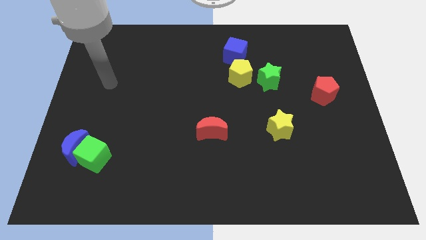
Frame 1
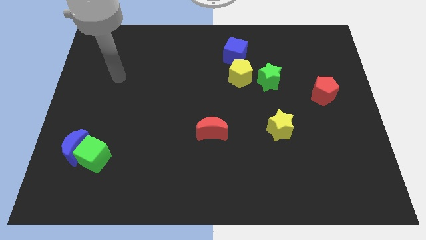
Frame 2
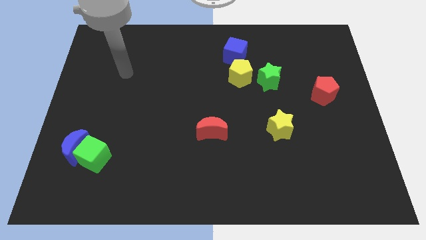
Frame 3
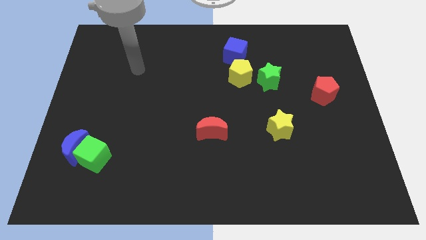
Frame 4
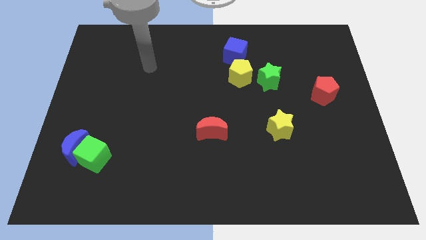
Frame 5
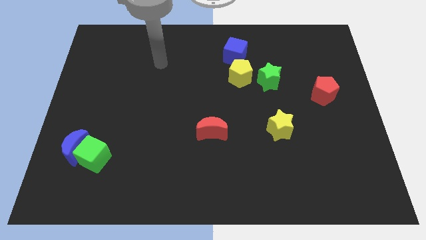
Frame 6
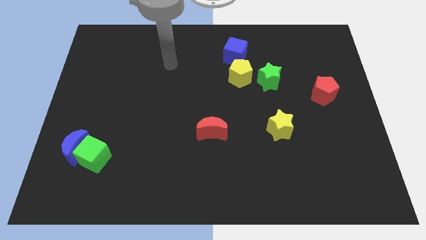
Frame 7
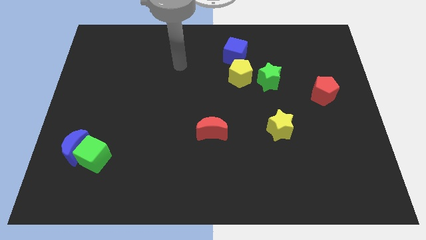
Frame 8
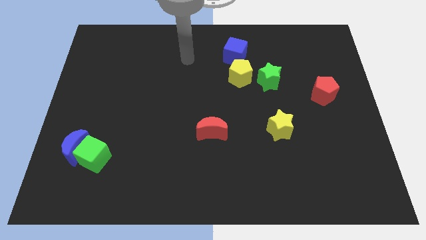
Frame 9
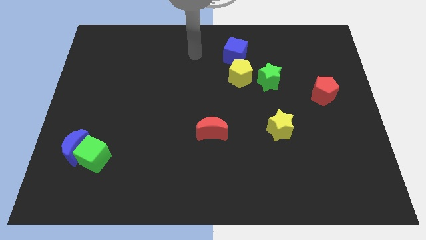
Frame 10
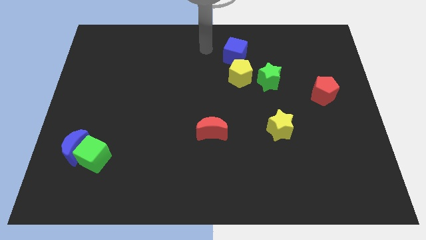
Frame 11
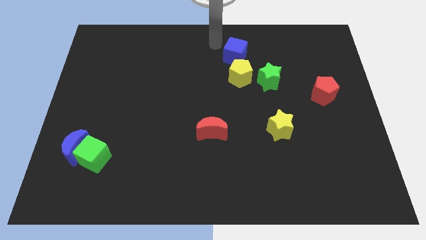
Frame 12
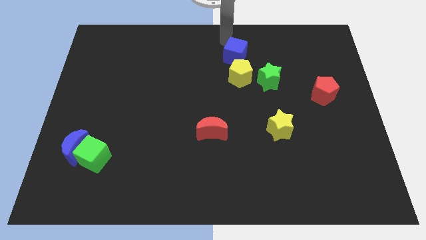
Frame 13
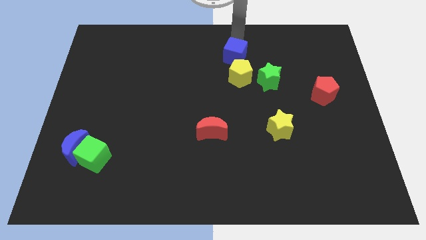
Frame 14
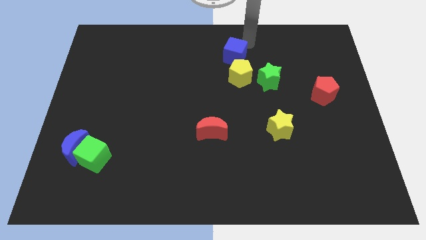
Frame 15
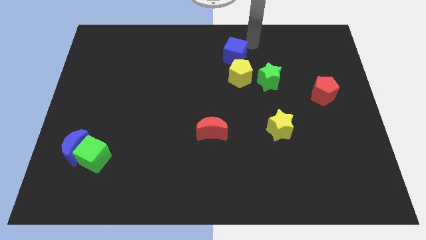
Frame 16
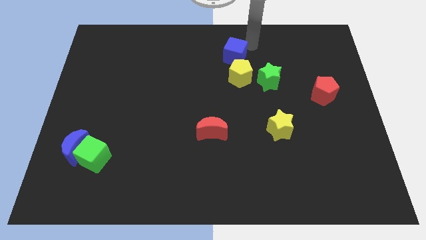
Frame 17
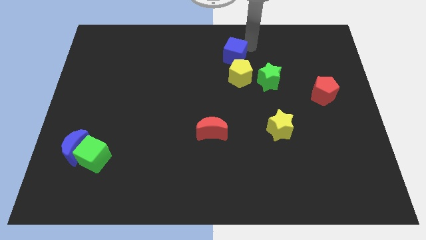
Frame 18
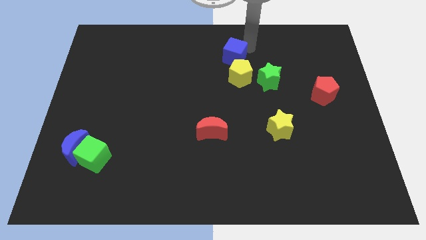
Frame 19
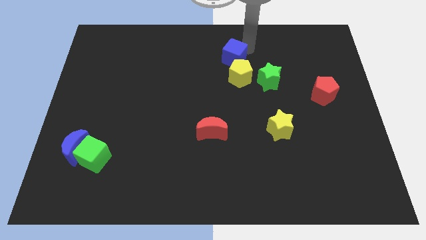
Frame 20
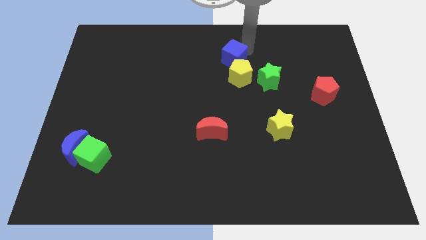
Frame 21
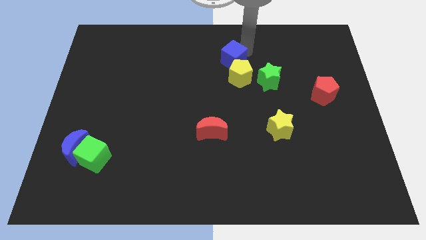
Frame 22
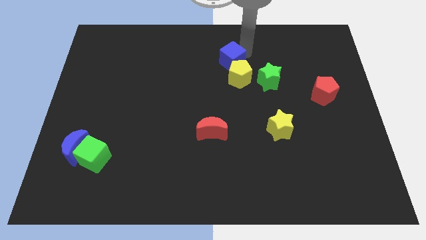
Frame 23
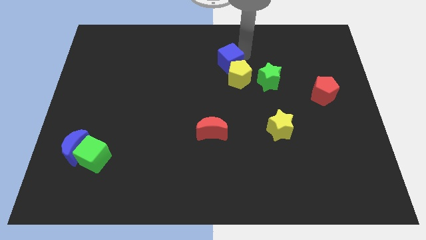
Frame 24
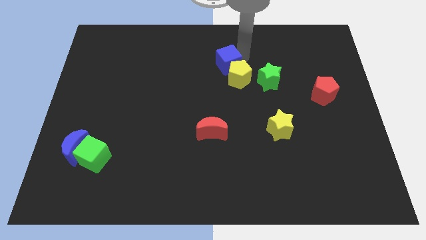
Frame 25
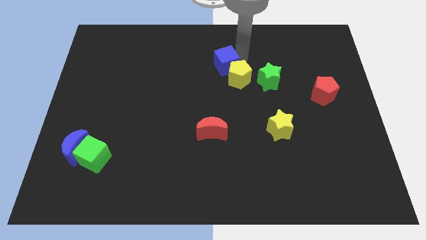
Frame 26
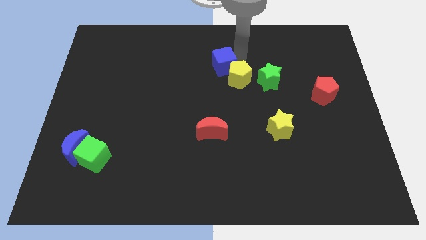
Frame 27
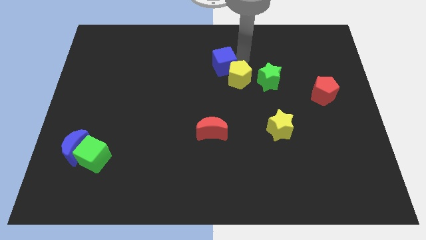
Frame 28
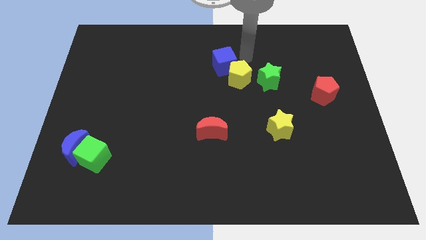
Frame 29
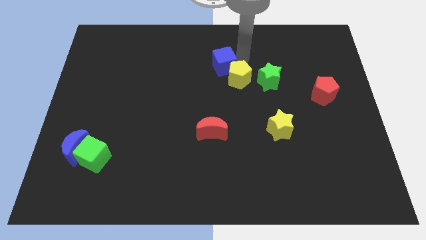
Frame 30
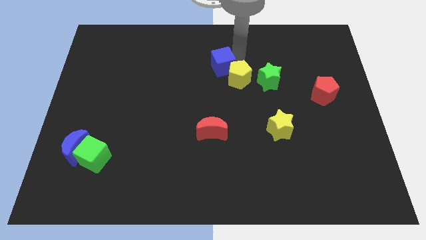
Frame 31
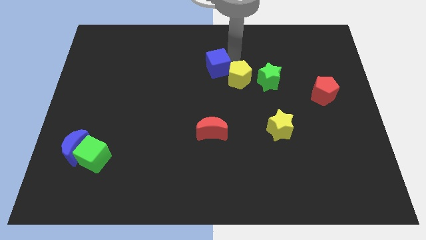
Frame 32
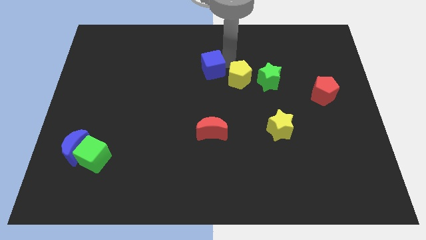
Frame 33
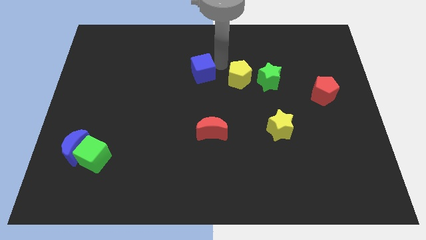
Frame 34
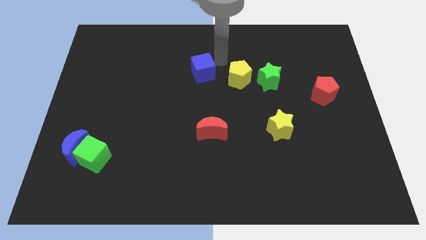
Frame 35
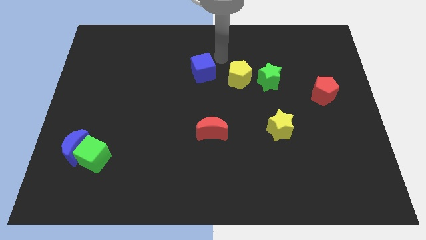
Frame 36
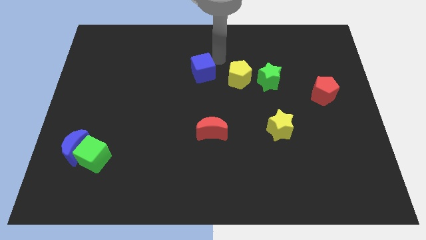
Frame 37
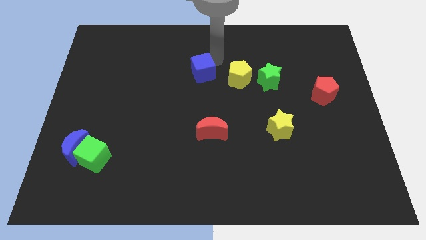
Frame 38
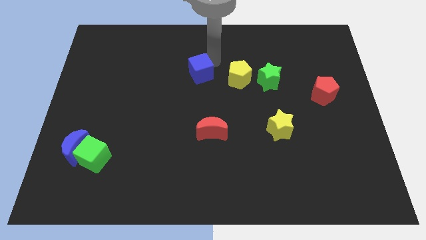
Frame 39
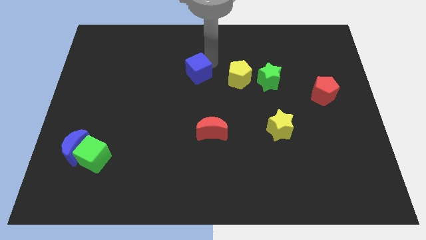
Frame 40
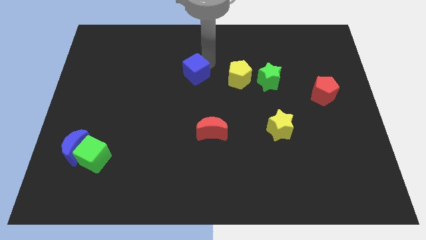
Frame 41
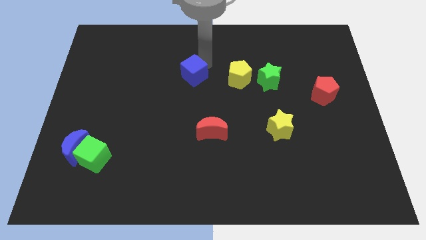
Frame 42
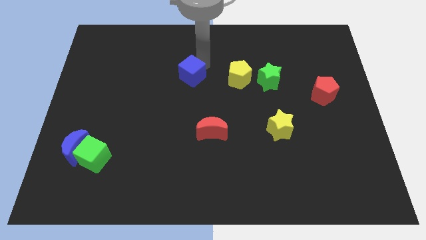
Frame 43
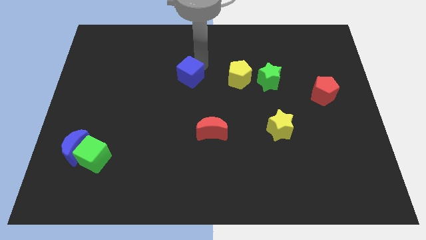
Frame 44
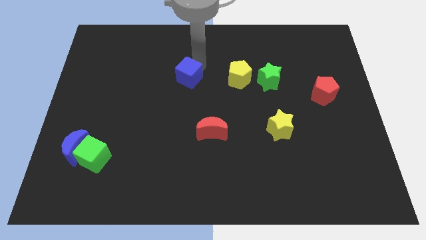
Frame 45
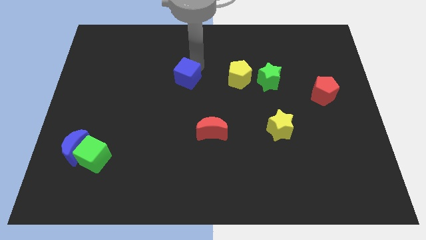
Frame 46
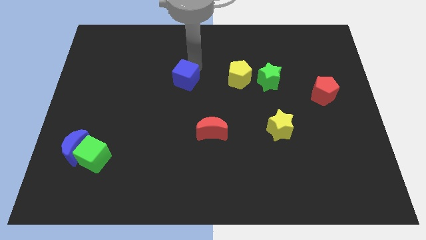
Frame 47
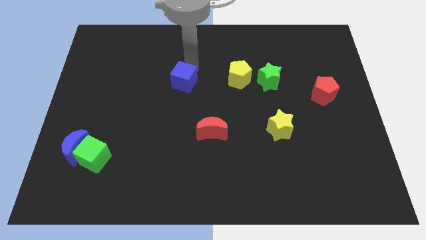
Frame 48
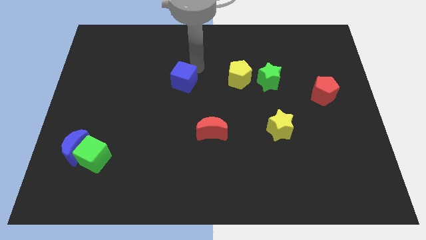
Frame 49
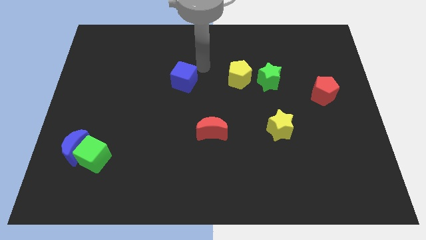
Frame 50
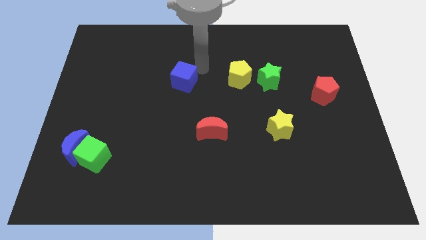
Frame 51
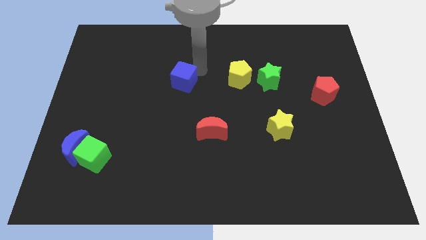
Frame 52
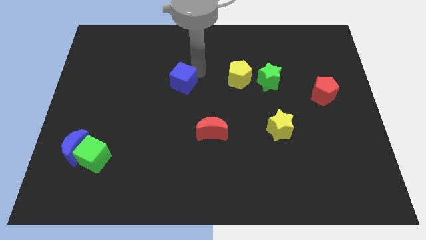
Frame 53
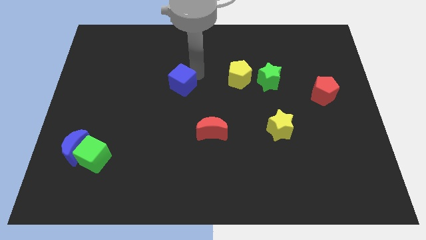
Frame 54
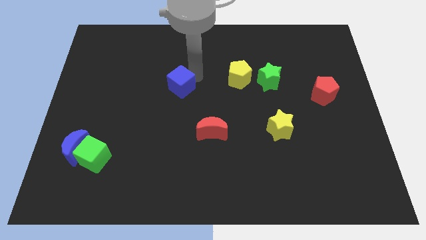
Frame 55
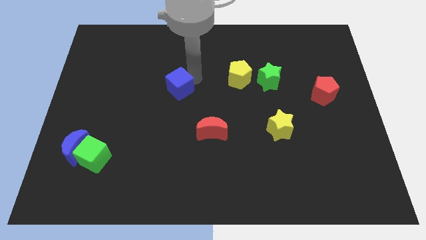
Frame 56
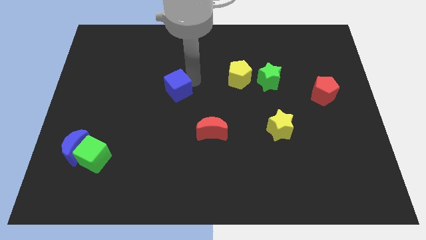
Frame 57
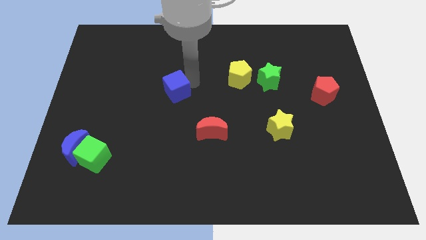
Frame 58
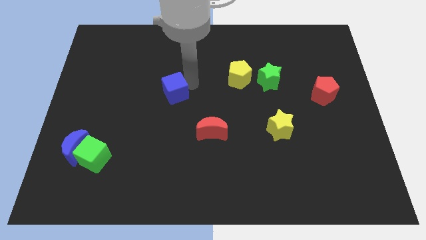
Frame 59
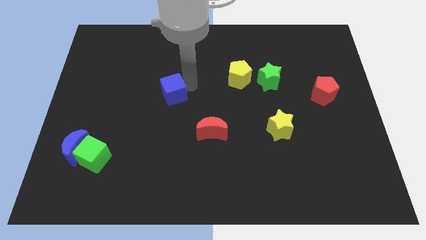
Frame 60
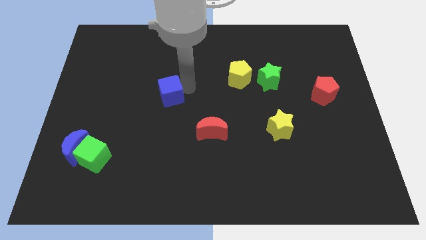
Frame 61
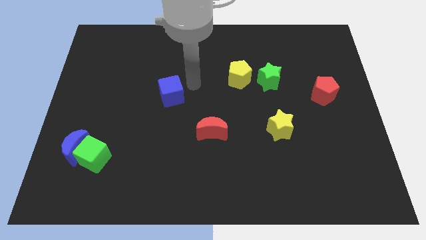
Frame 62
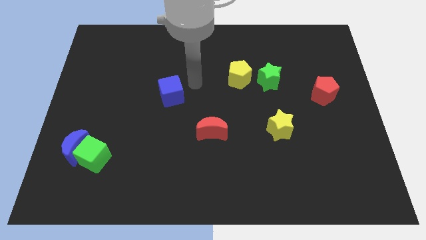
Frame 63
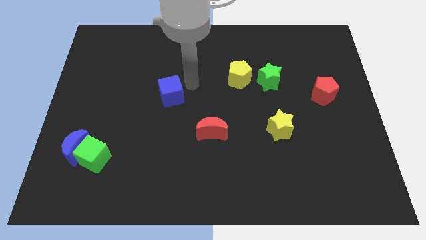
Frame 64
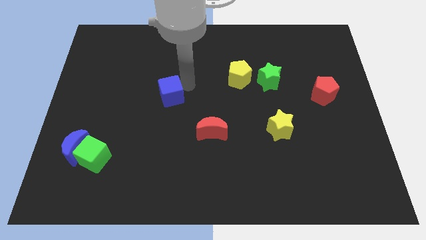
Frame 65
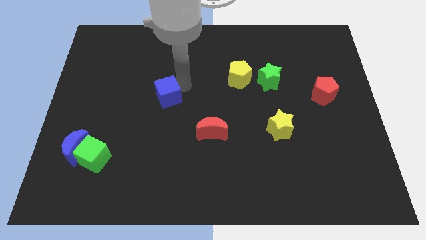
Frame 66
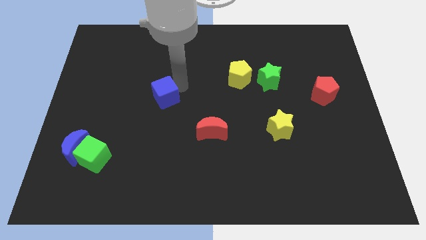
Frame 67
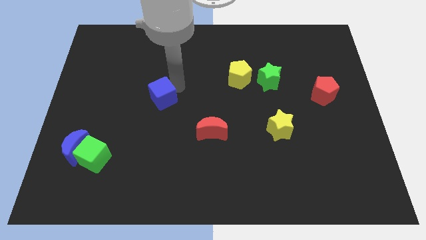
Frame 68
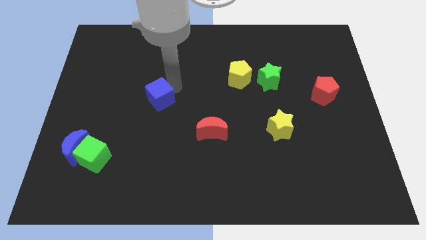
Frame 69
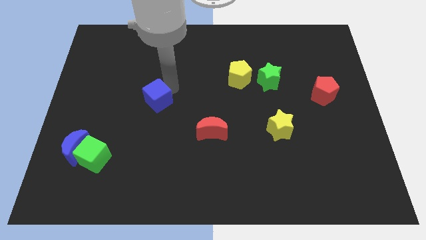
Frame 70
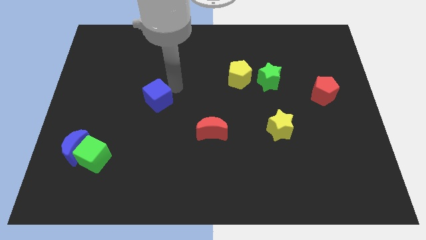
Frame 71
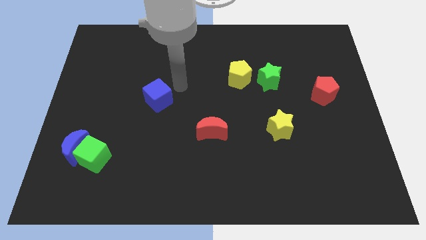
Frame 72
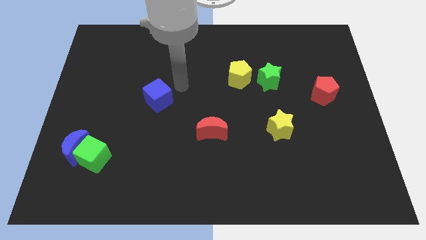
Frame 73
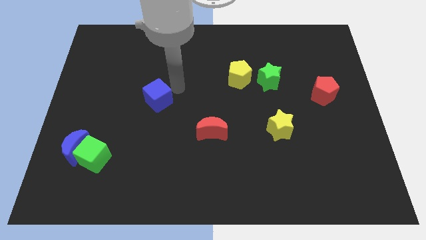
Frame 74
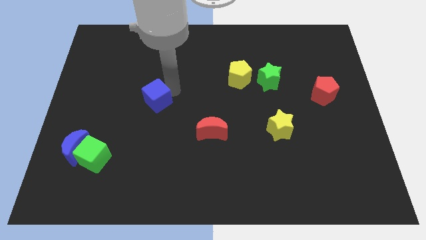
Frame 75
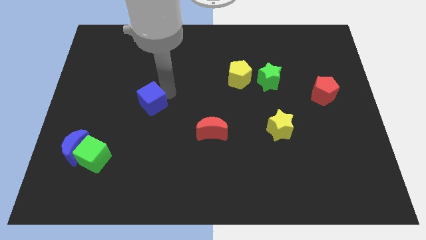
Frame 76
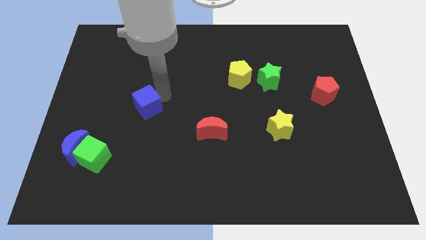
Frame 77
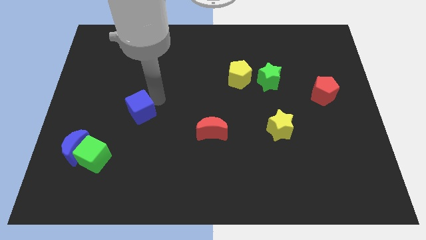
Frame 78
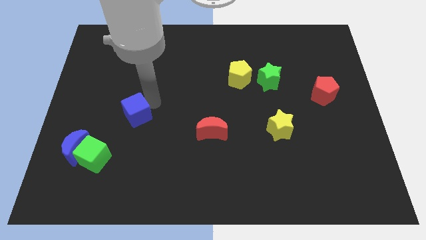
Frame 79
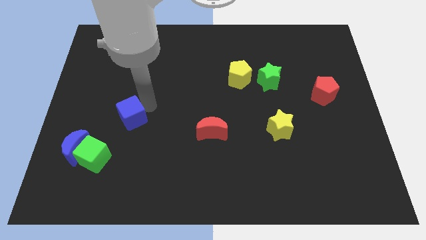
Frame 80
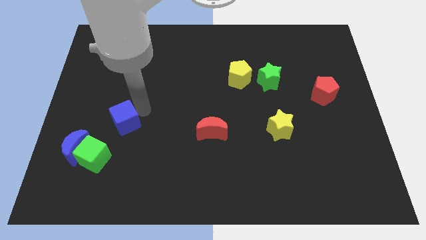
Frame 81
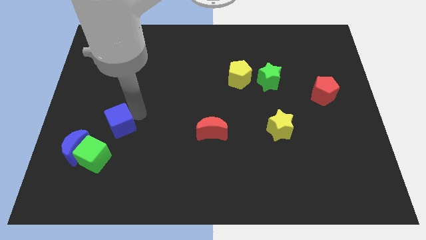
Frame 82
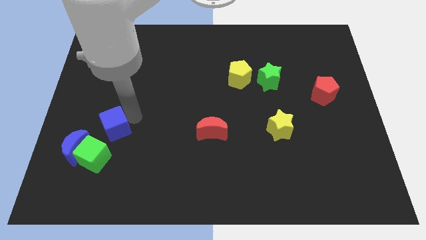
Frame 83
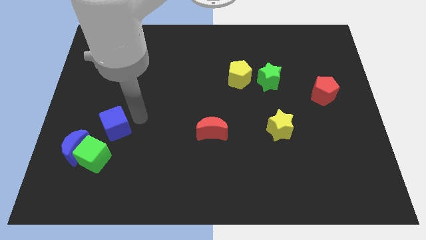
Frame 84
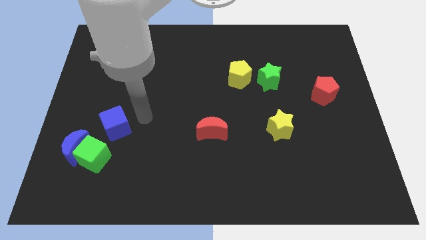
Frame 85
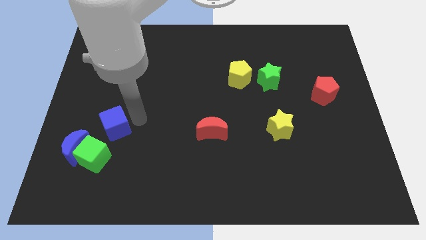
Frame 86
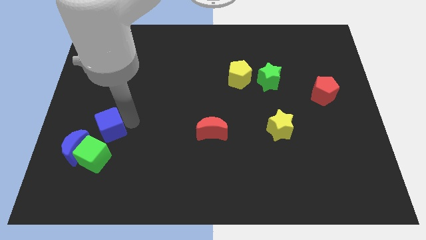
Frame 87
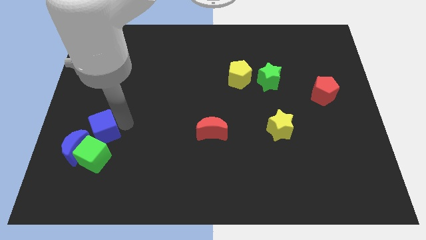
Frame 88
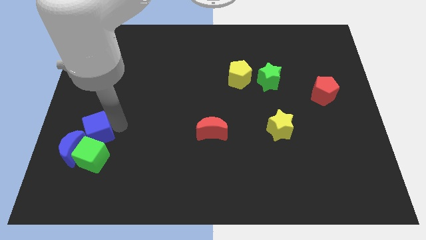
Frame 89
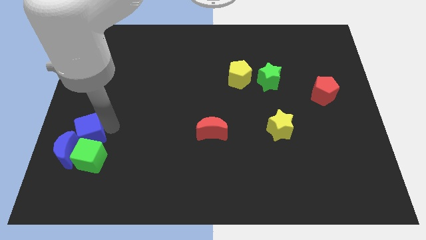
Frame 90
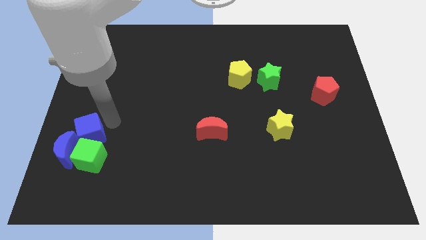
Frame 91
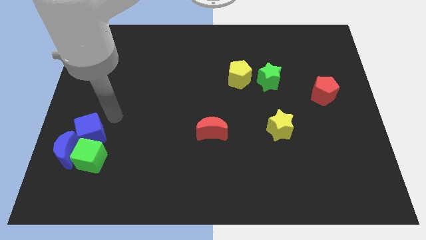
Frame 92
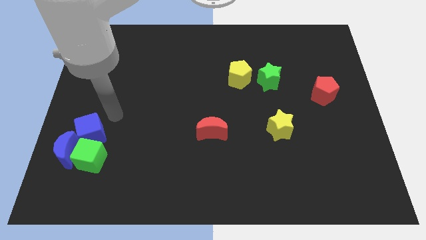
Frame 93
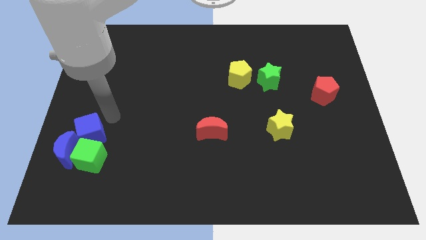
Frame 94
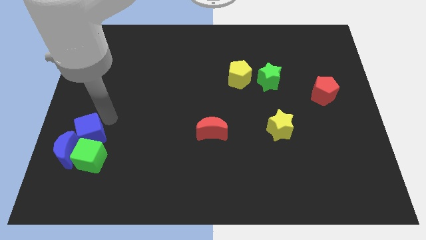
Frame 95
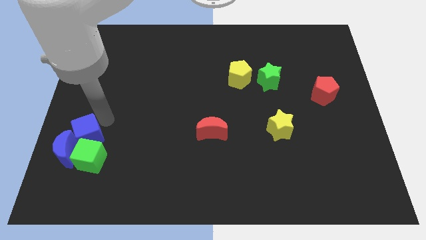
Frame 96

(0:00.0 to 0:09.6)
move the blue cube close to the blue moon
